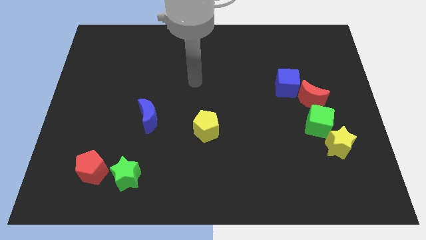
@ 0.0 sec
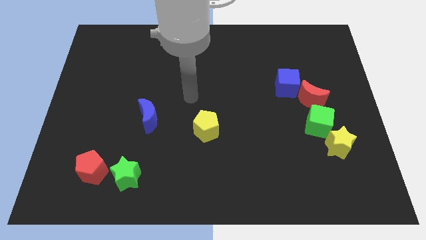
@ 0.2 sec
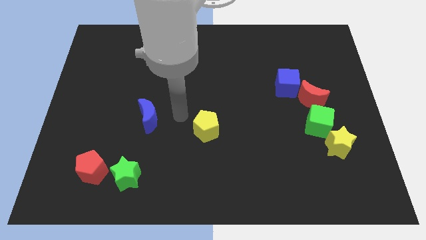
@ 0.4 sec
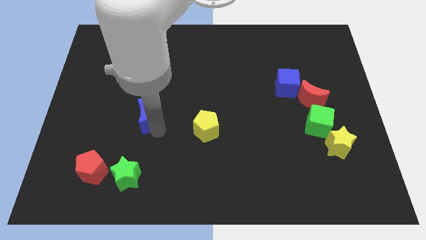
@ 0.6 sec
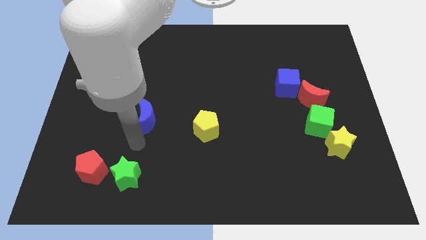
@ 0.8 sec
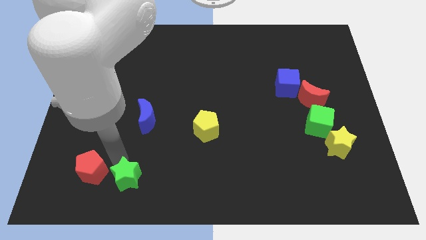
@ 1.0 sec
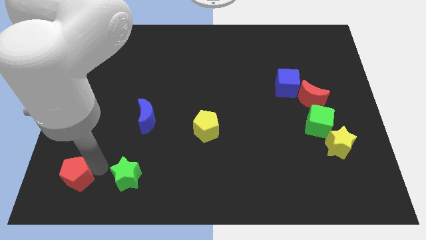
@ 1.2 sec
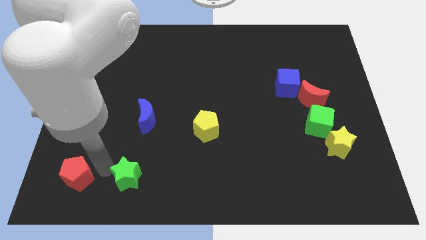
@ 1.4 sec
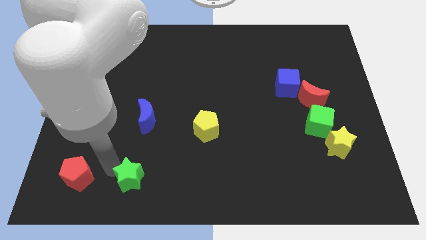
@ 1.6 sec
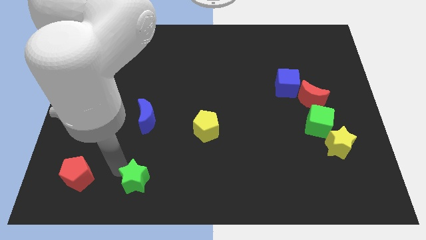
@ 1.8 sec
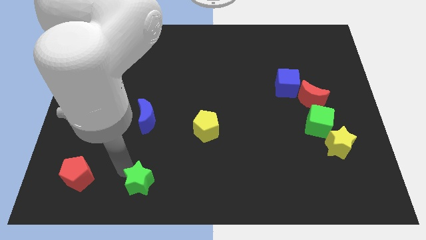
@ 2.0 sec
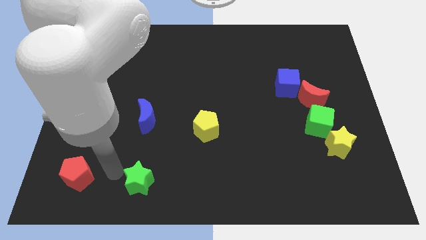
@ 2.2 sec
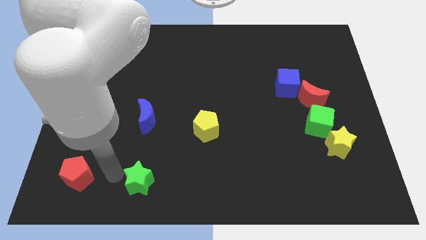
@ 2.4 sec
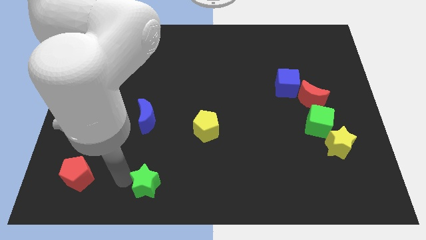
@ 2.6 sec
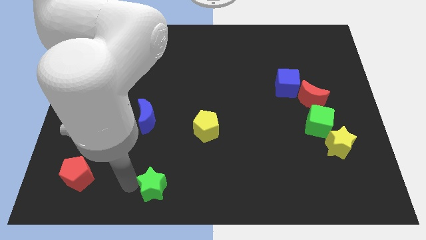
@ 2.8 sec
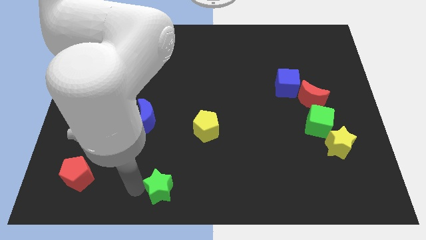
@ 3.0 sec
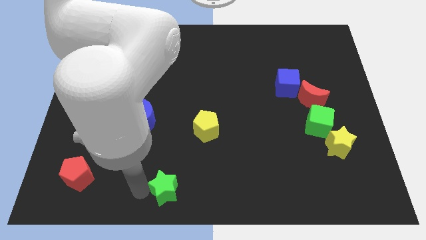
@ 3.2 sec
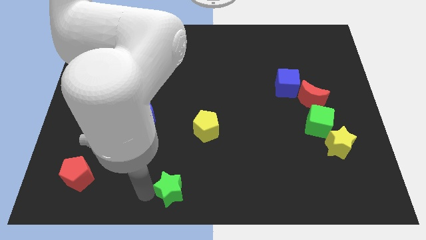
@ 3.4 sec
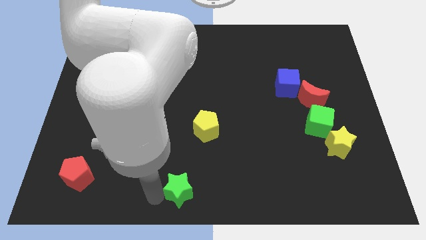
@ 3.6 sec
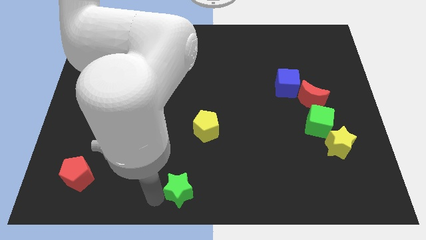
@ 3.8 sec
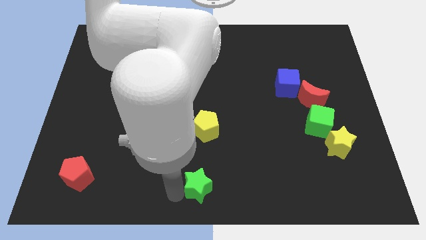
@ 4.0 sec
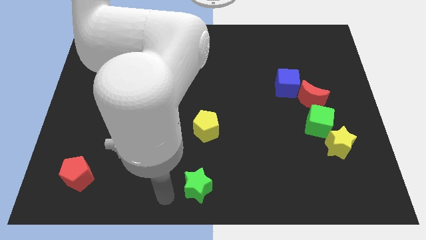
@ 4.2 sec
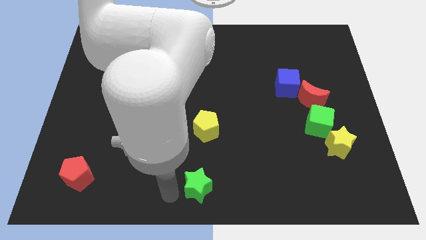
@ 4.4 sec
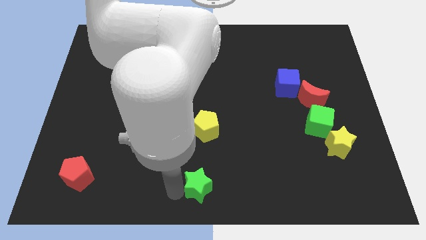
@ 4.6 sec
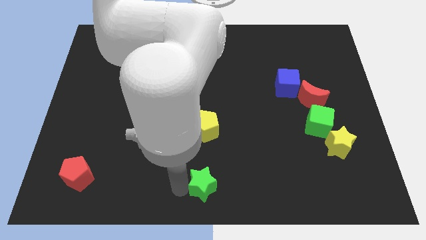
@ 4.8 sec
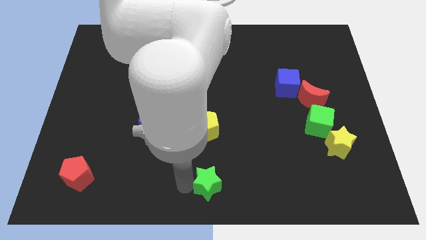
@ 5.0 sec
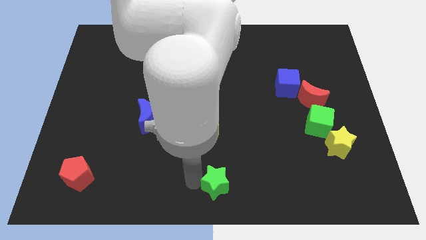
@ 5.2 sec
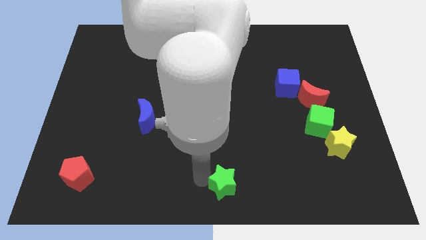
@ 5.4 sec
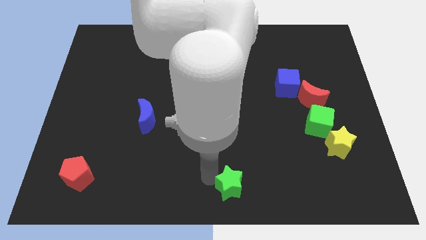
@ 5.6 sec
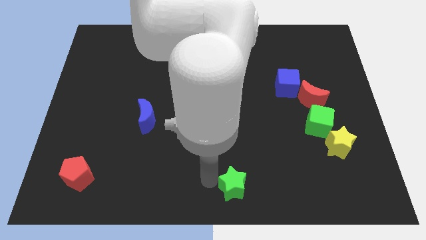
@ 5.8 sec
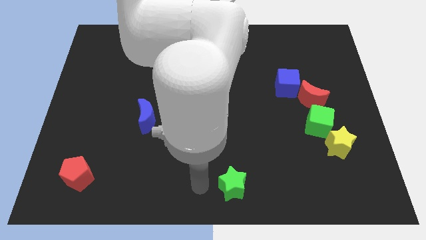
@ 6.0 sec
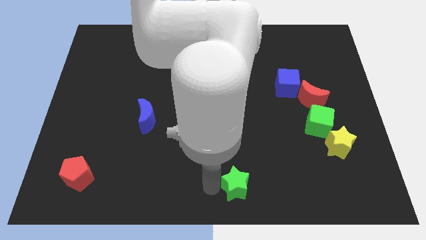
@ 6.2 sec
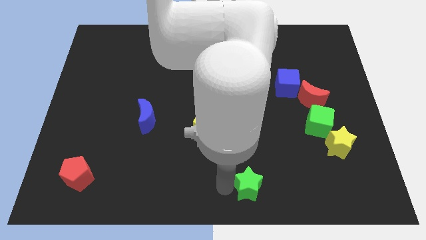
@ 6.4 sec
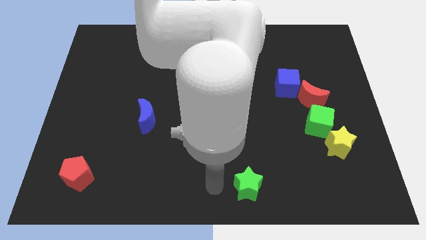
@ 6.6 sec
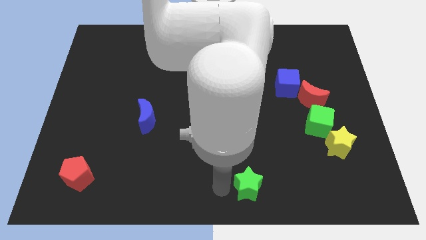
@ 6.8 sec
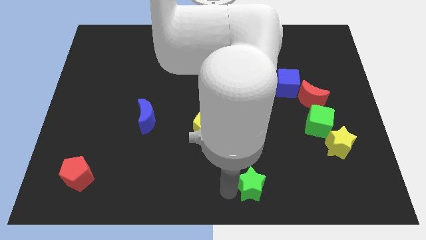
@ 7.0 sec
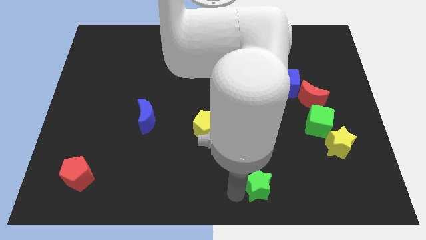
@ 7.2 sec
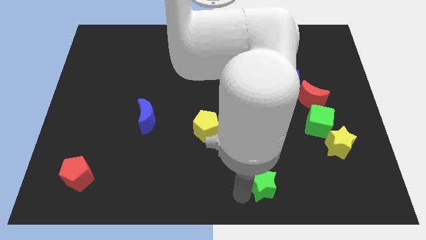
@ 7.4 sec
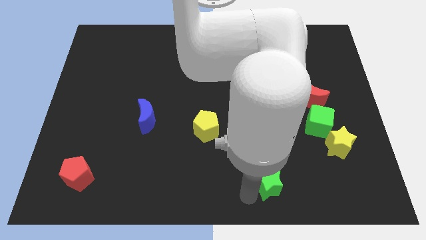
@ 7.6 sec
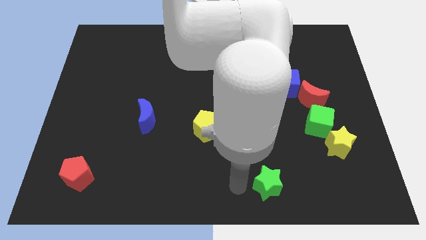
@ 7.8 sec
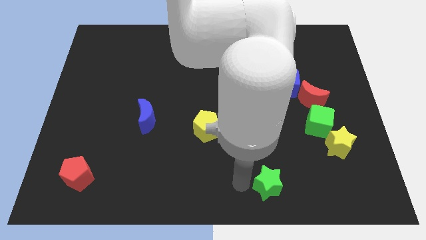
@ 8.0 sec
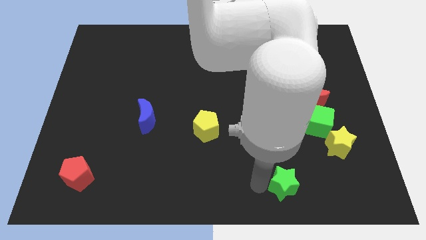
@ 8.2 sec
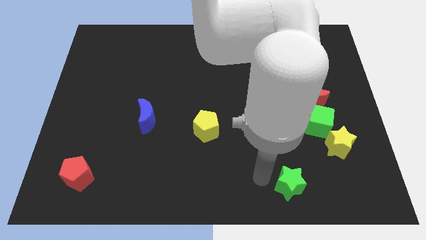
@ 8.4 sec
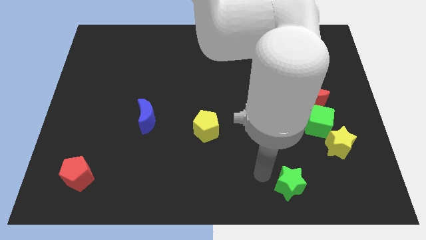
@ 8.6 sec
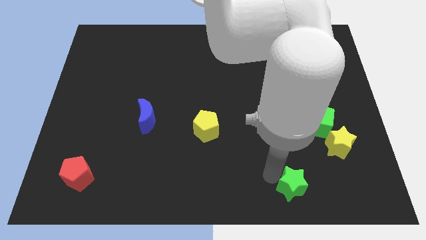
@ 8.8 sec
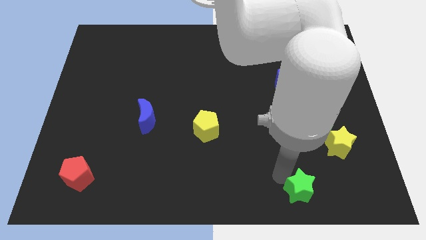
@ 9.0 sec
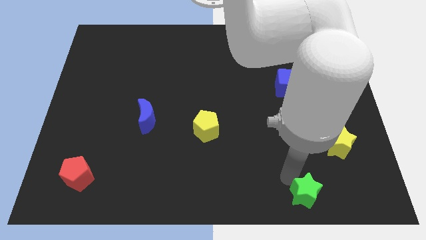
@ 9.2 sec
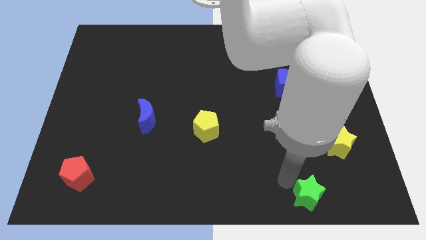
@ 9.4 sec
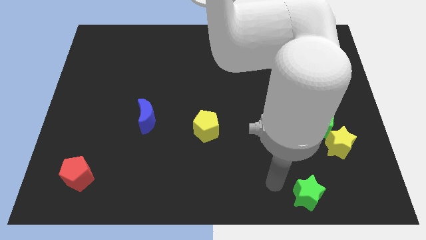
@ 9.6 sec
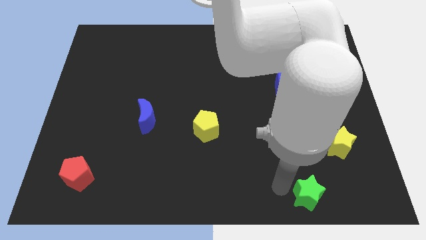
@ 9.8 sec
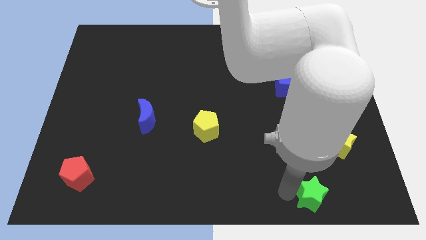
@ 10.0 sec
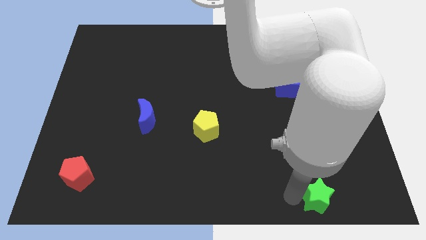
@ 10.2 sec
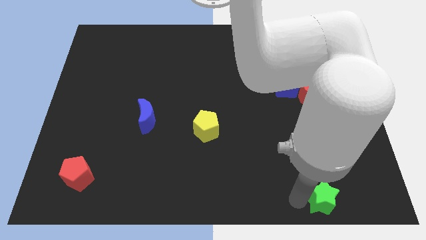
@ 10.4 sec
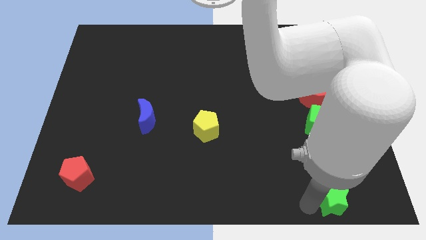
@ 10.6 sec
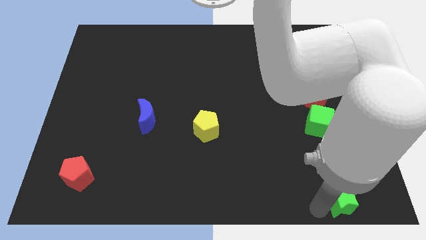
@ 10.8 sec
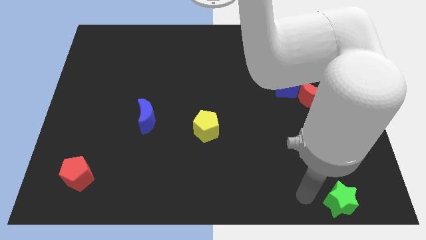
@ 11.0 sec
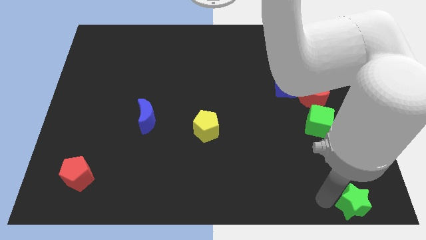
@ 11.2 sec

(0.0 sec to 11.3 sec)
move the green star to the lower right corner
